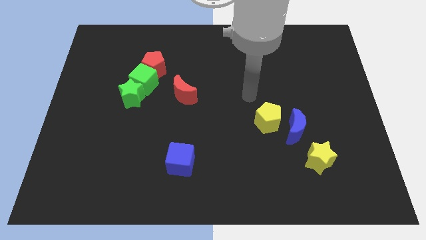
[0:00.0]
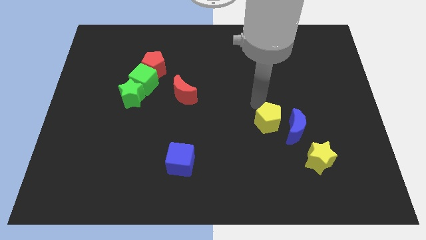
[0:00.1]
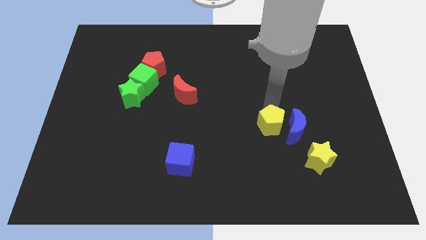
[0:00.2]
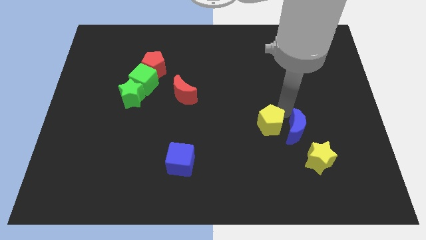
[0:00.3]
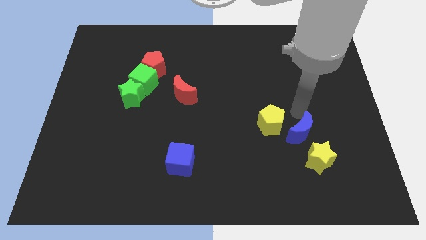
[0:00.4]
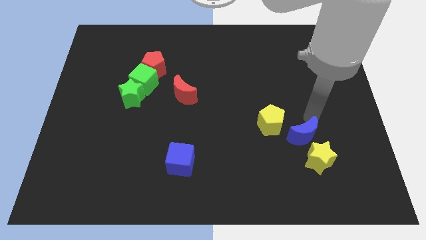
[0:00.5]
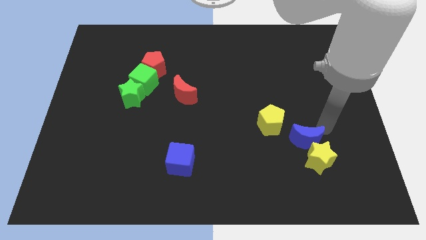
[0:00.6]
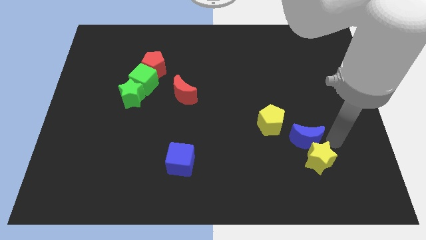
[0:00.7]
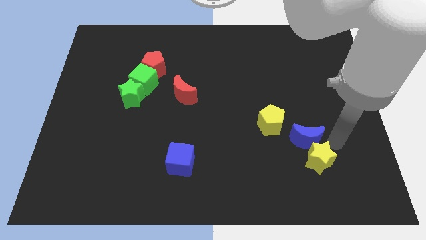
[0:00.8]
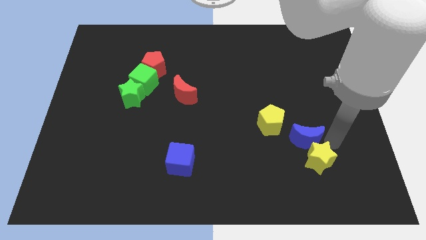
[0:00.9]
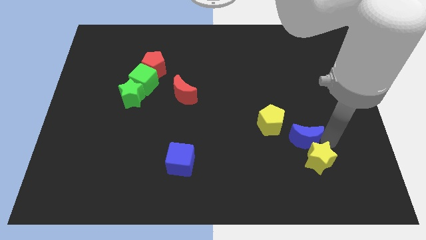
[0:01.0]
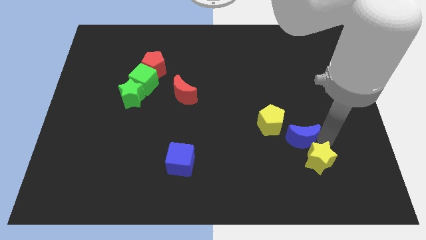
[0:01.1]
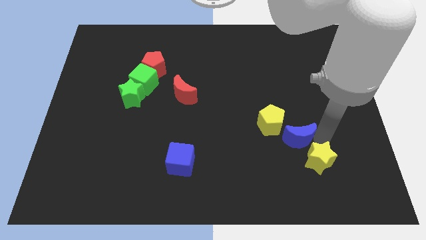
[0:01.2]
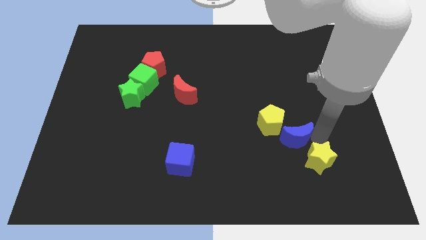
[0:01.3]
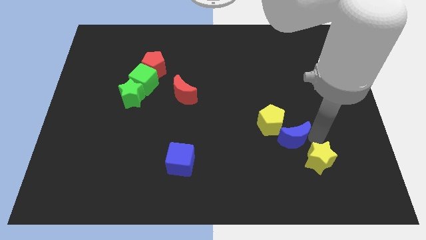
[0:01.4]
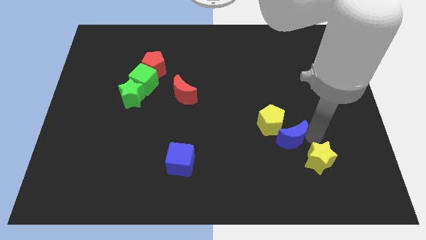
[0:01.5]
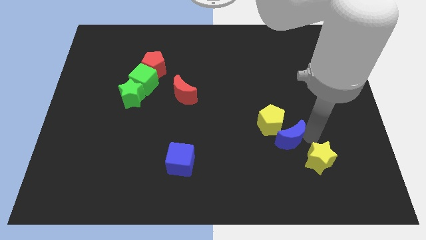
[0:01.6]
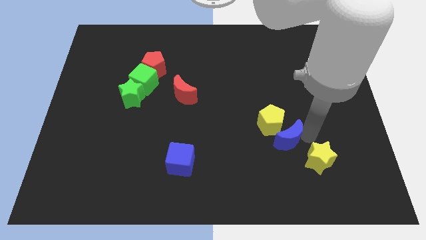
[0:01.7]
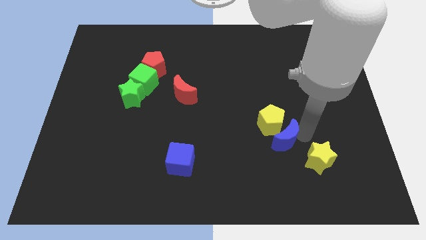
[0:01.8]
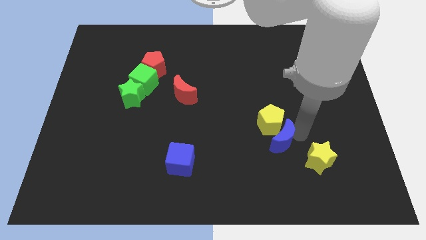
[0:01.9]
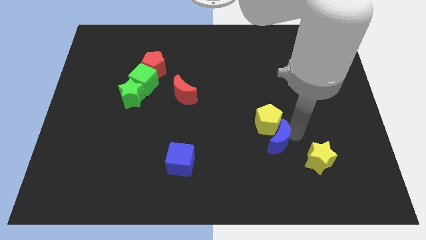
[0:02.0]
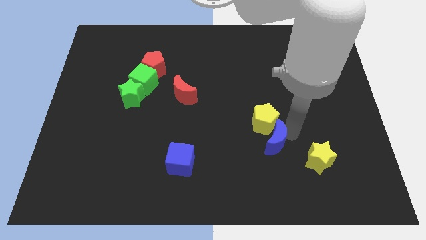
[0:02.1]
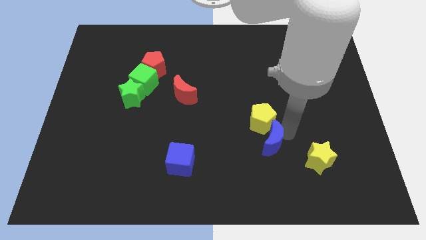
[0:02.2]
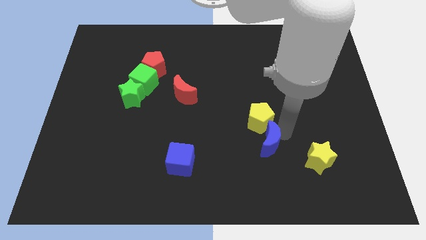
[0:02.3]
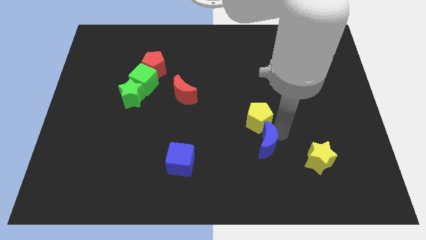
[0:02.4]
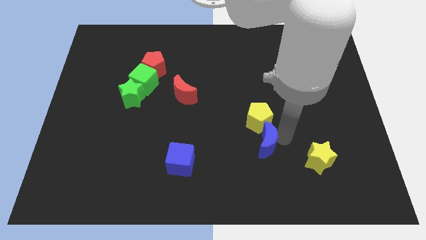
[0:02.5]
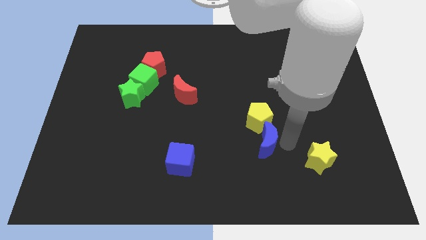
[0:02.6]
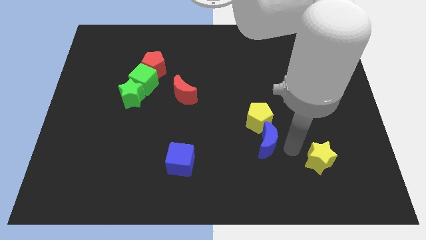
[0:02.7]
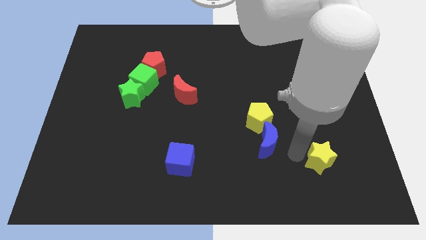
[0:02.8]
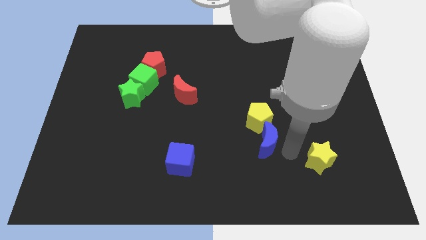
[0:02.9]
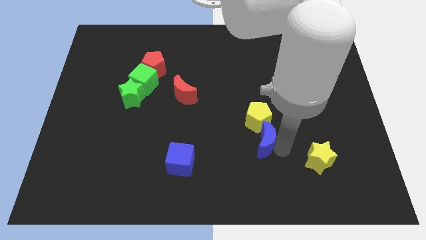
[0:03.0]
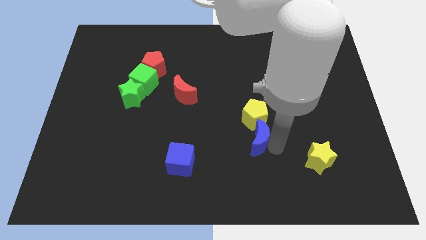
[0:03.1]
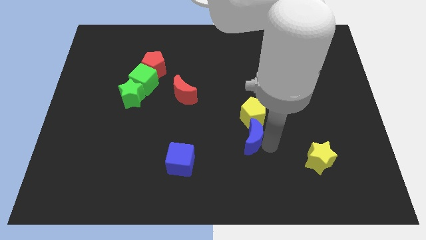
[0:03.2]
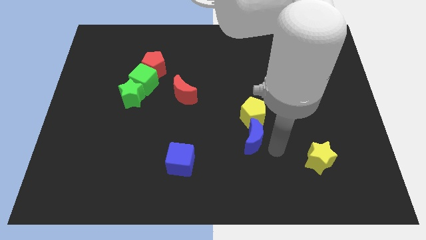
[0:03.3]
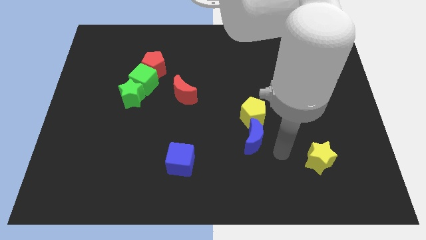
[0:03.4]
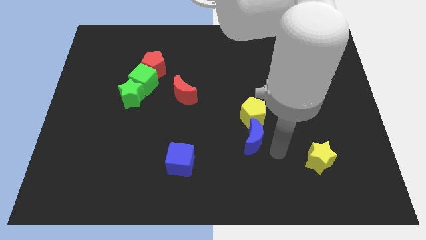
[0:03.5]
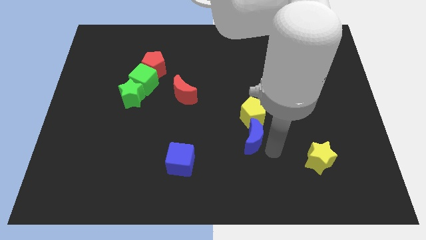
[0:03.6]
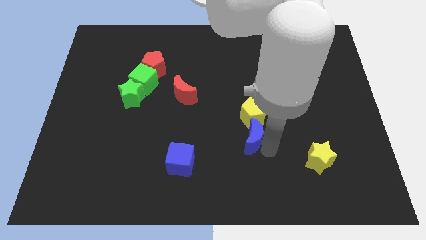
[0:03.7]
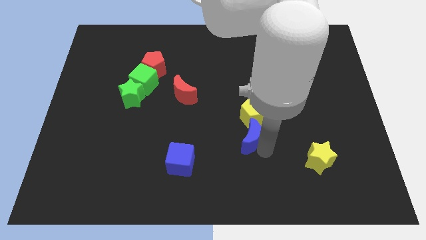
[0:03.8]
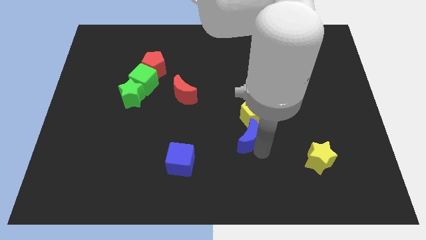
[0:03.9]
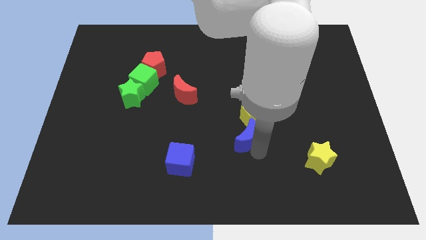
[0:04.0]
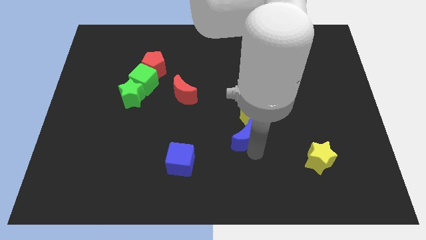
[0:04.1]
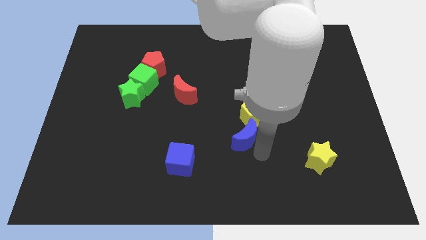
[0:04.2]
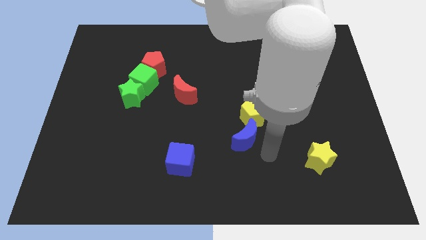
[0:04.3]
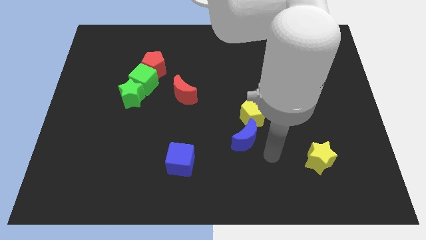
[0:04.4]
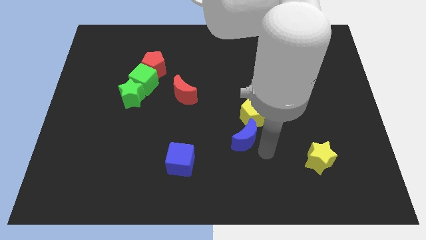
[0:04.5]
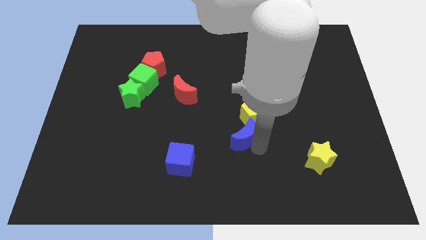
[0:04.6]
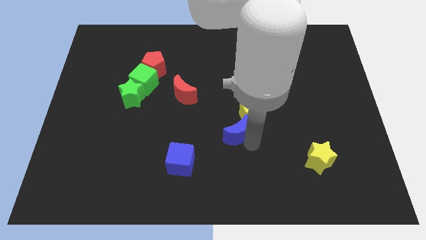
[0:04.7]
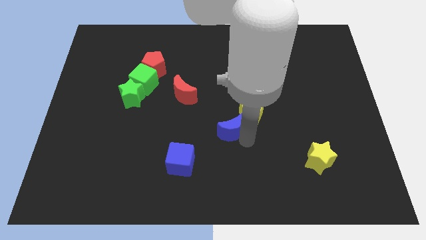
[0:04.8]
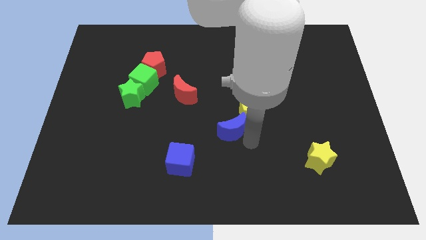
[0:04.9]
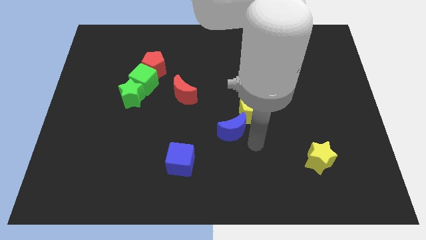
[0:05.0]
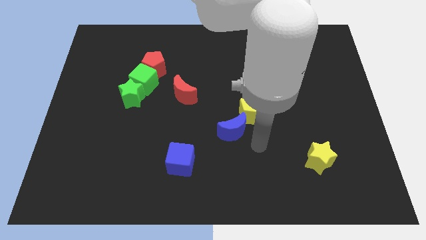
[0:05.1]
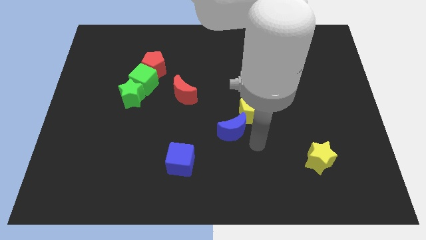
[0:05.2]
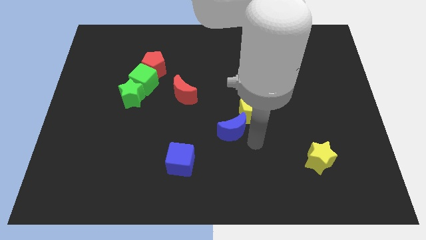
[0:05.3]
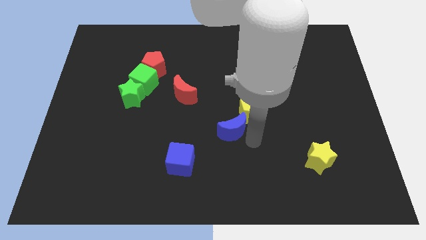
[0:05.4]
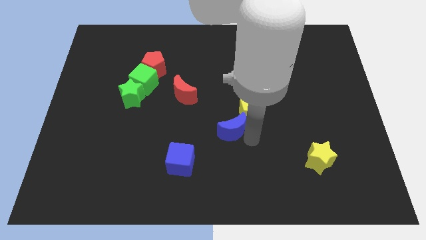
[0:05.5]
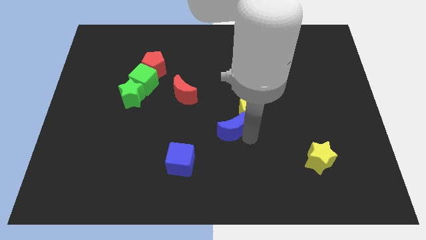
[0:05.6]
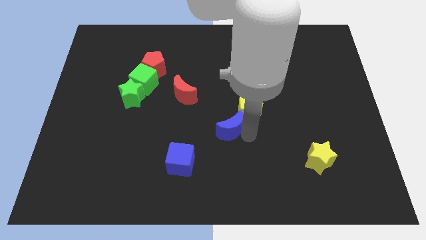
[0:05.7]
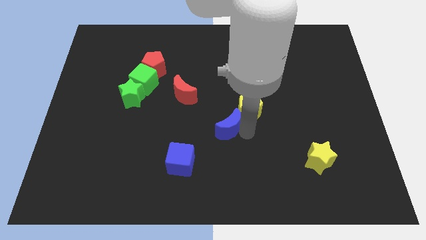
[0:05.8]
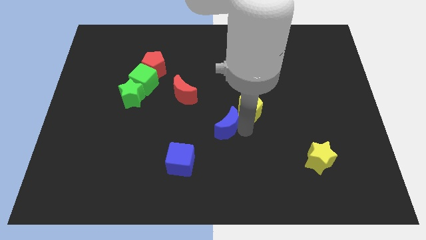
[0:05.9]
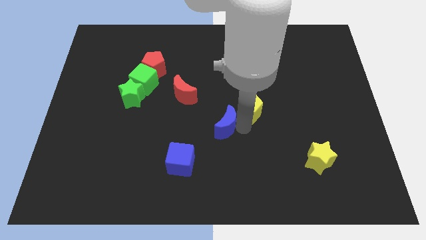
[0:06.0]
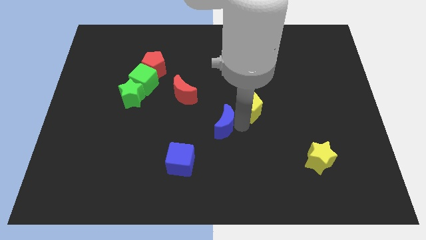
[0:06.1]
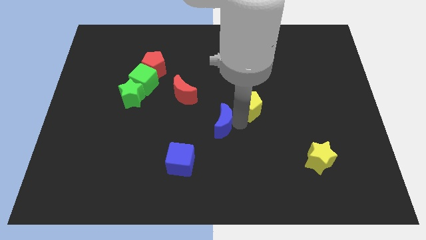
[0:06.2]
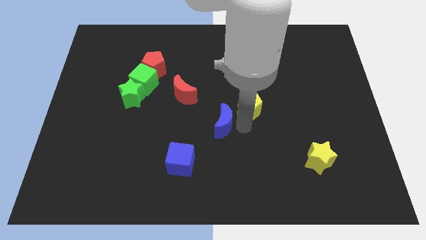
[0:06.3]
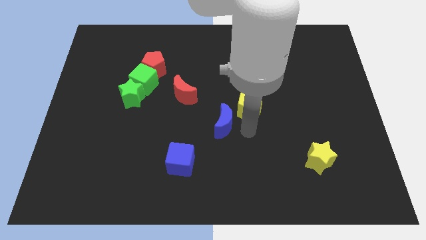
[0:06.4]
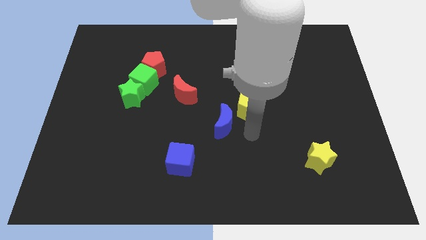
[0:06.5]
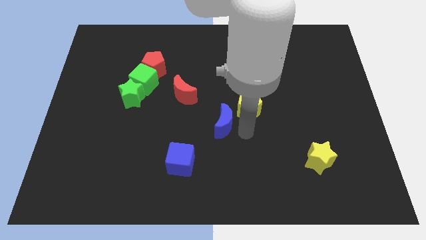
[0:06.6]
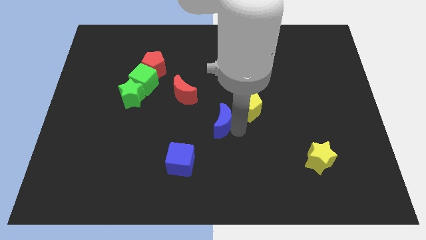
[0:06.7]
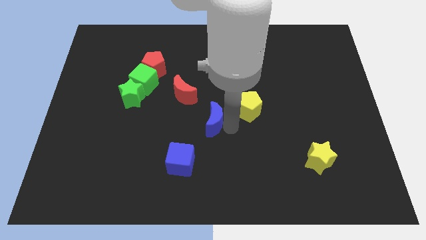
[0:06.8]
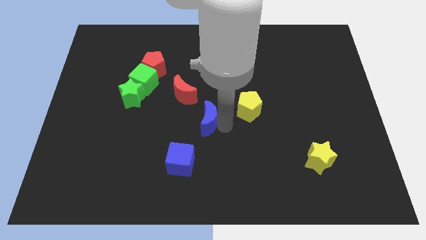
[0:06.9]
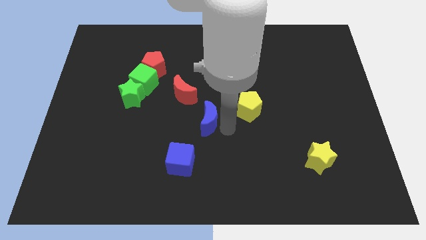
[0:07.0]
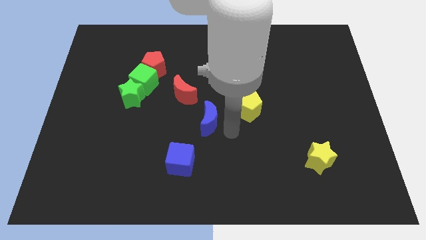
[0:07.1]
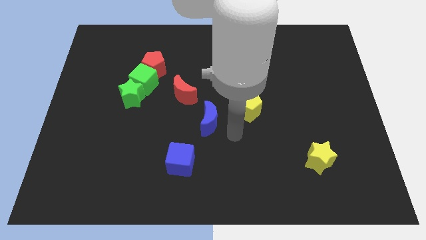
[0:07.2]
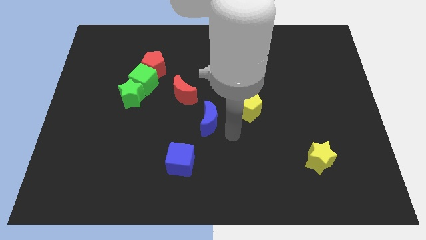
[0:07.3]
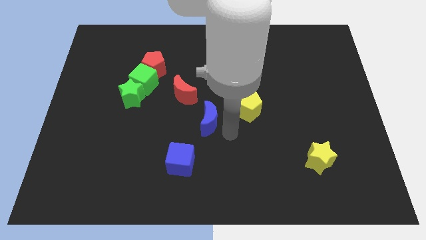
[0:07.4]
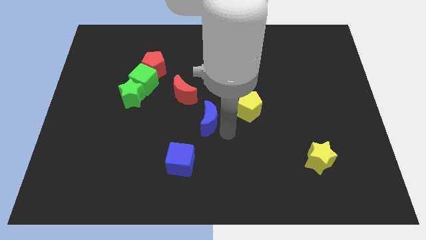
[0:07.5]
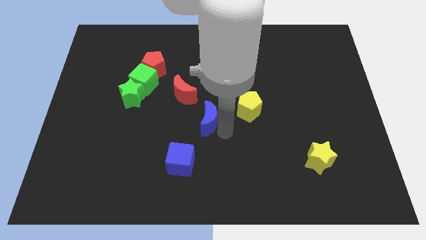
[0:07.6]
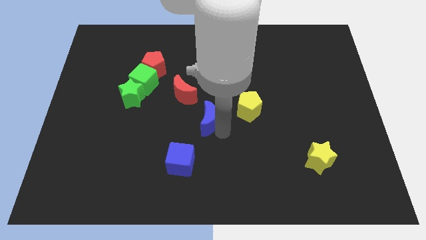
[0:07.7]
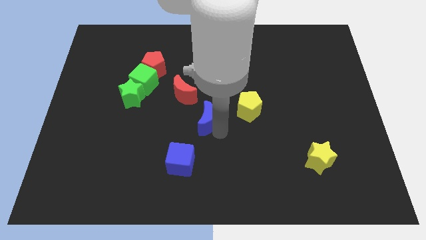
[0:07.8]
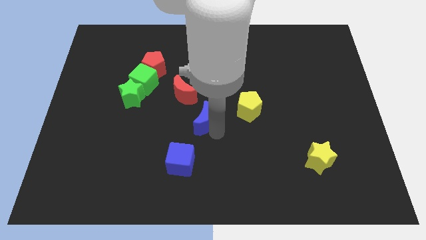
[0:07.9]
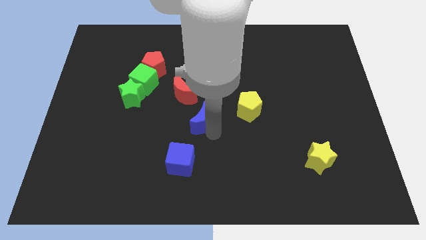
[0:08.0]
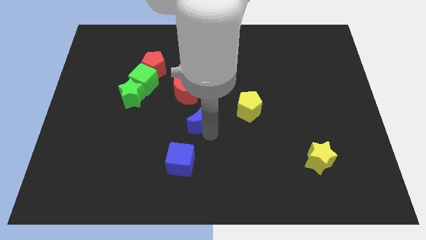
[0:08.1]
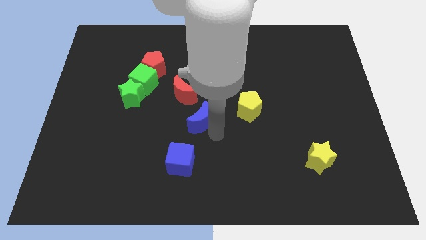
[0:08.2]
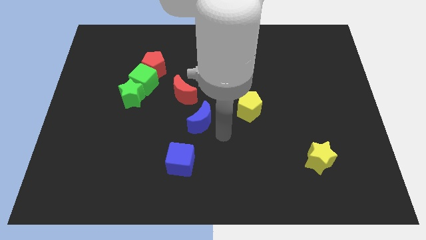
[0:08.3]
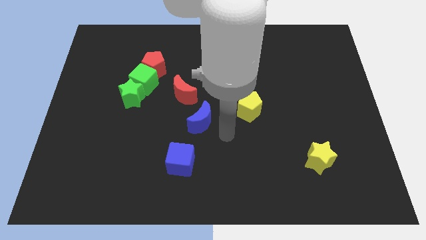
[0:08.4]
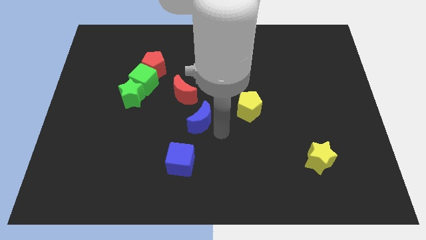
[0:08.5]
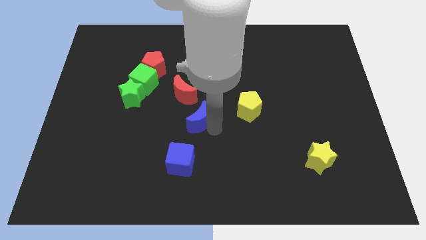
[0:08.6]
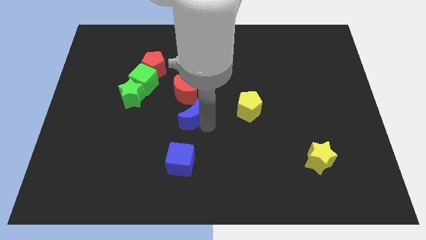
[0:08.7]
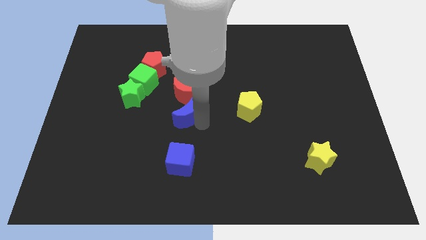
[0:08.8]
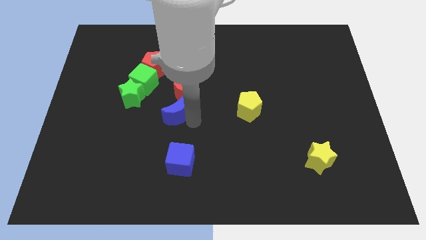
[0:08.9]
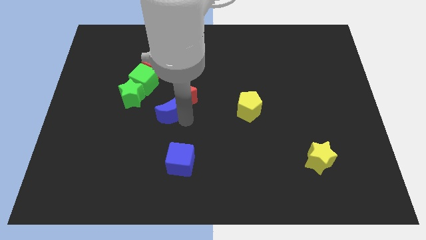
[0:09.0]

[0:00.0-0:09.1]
put the blue moon to the bottom right side of the green cube
